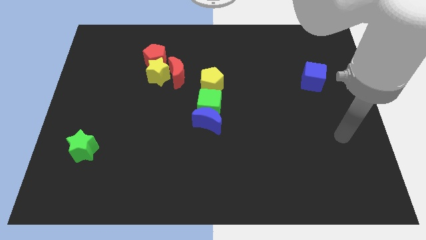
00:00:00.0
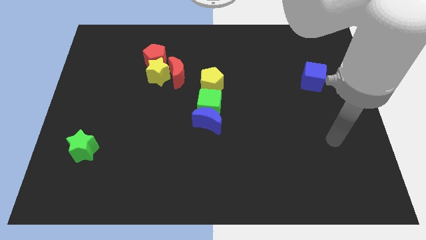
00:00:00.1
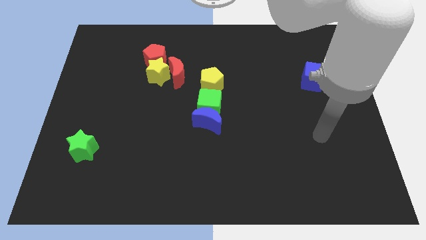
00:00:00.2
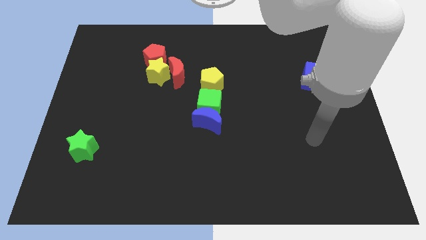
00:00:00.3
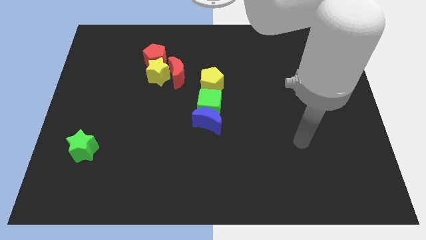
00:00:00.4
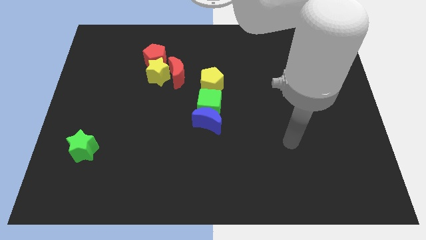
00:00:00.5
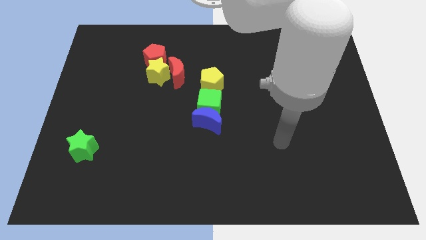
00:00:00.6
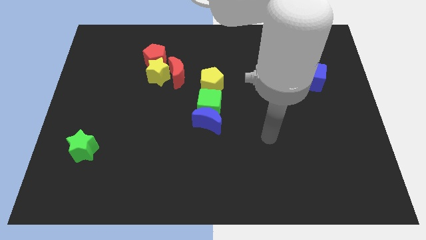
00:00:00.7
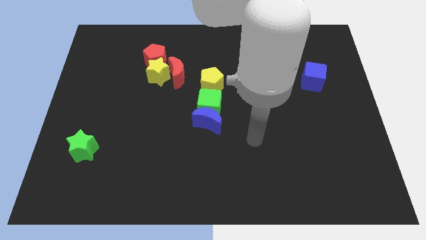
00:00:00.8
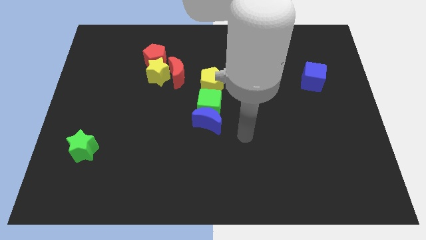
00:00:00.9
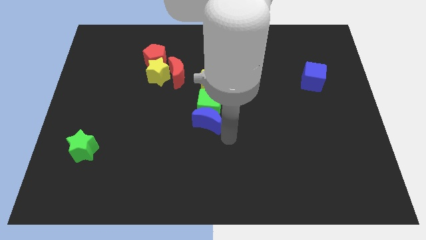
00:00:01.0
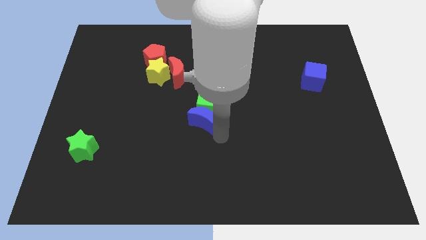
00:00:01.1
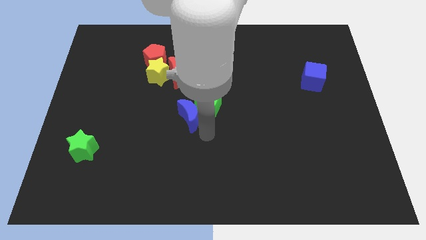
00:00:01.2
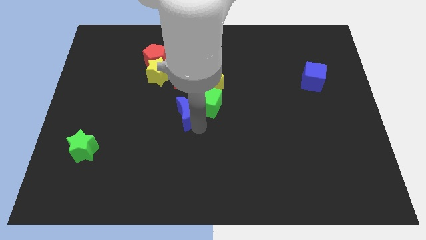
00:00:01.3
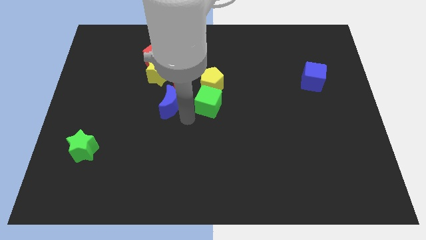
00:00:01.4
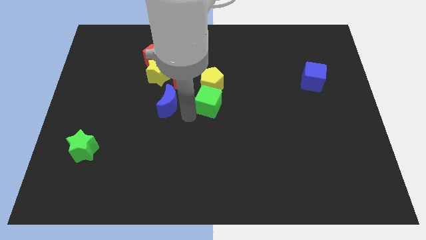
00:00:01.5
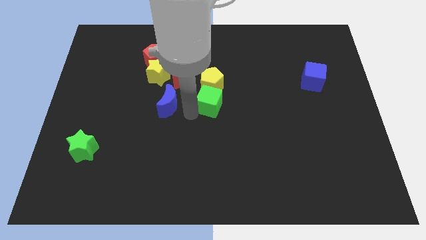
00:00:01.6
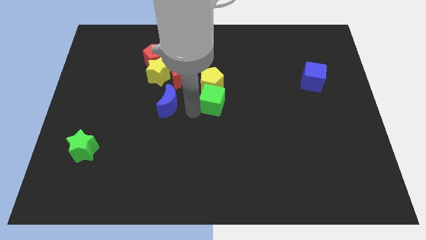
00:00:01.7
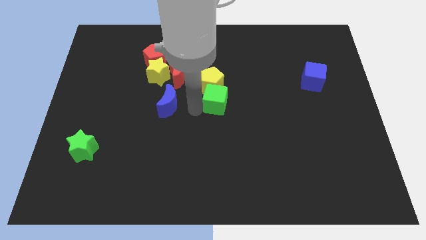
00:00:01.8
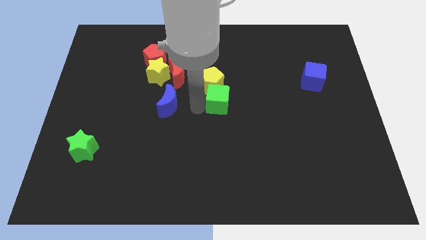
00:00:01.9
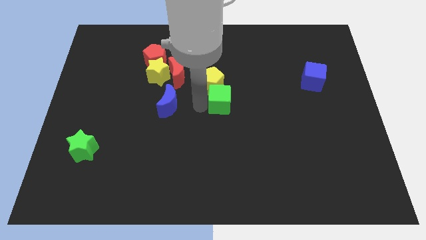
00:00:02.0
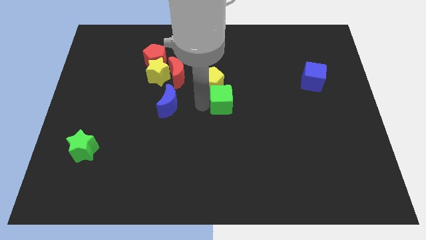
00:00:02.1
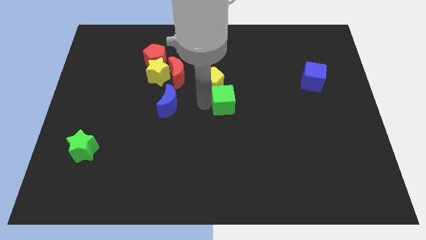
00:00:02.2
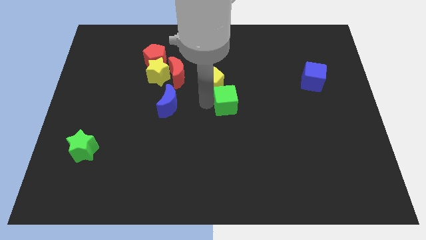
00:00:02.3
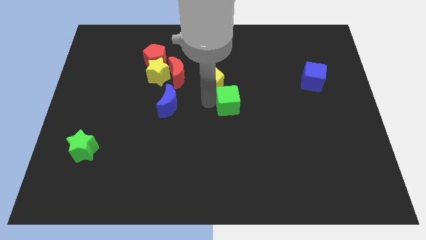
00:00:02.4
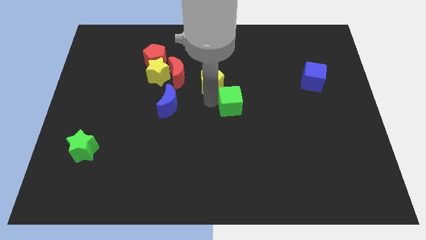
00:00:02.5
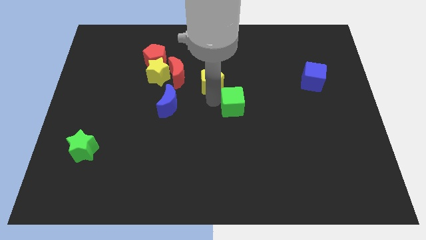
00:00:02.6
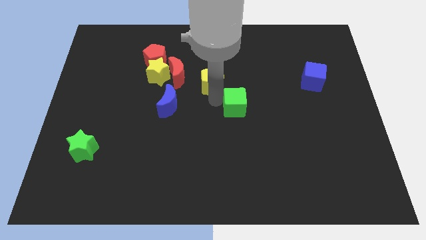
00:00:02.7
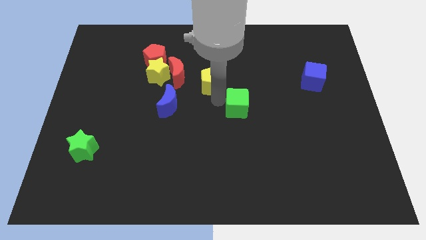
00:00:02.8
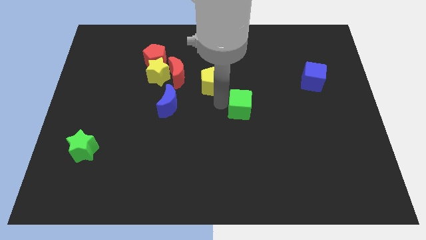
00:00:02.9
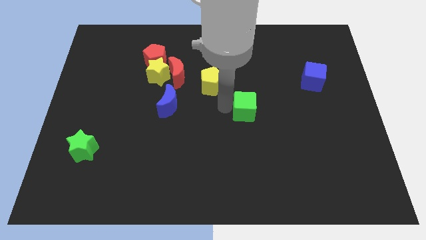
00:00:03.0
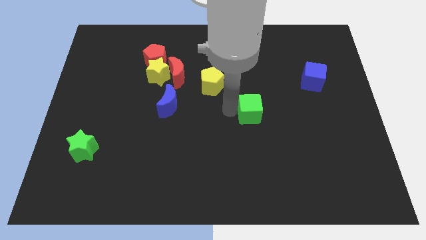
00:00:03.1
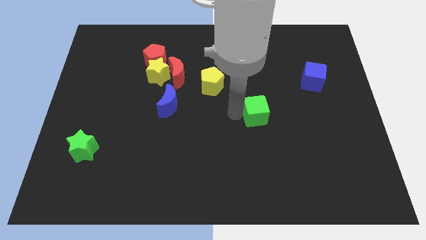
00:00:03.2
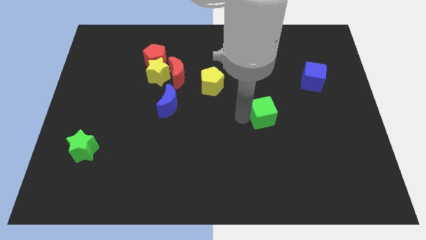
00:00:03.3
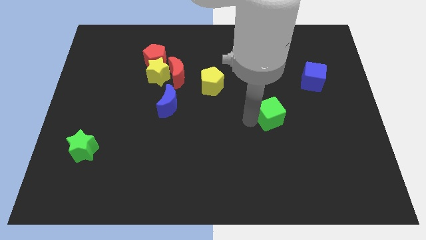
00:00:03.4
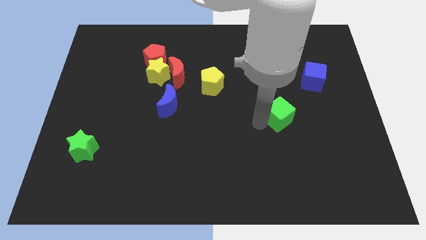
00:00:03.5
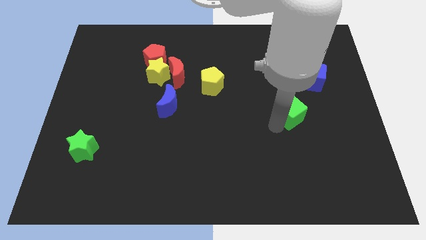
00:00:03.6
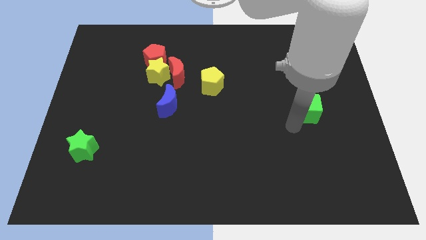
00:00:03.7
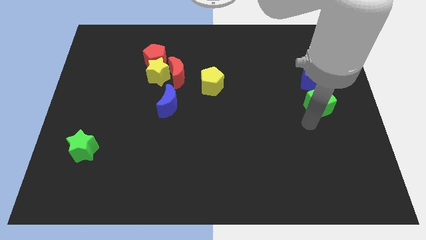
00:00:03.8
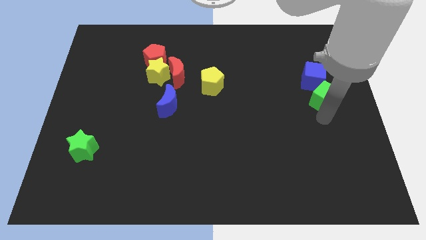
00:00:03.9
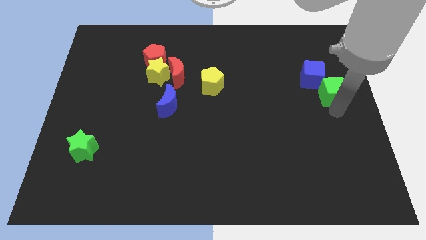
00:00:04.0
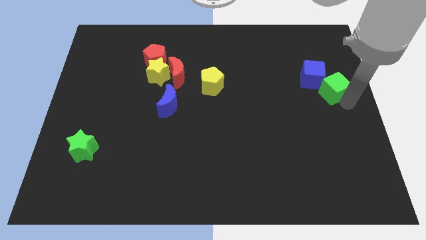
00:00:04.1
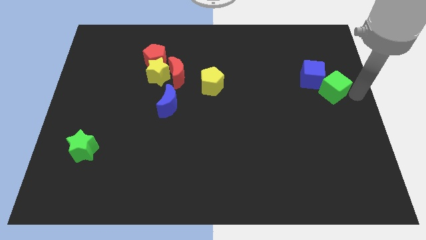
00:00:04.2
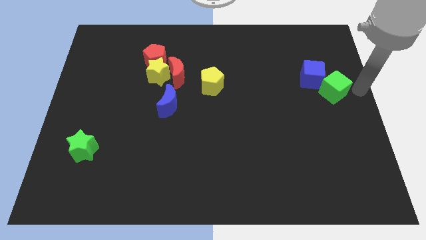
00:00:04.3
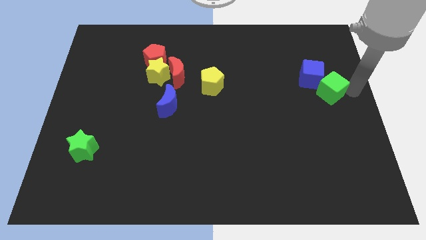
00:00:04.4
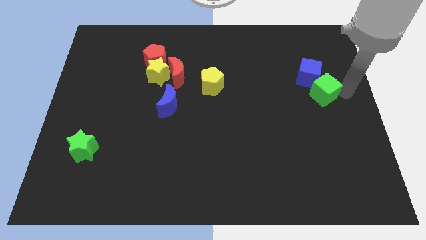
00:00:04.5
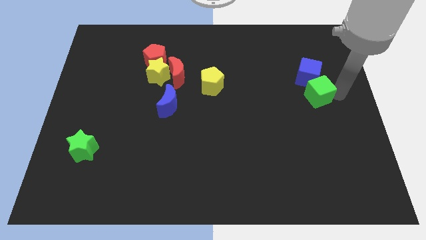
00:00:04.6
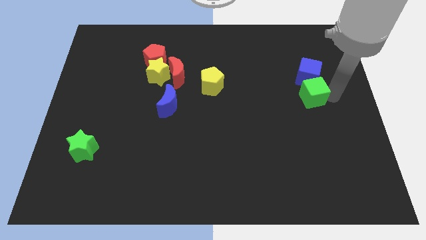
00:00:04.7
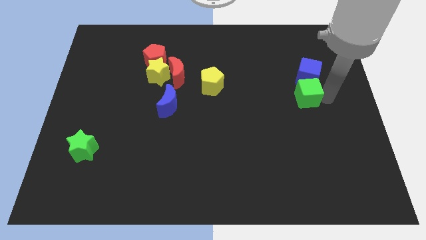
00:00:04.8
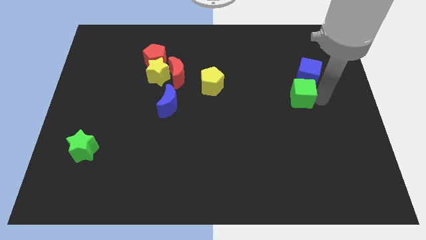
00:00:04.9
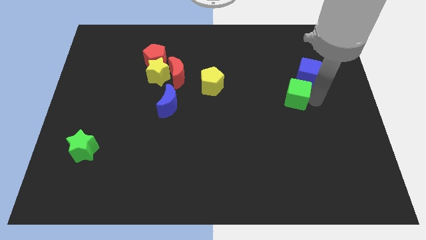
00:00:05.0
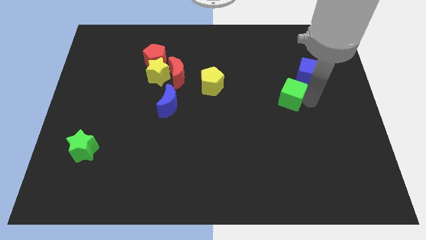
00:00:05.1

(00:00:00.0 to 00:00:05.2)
slide the green cube a little diagonally up and right

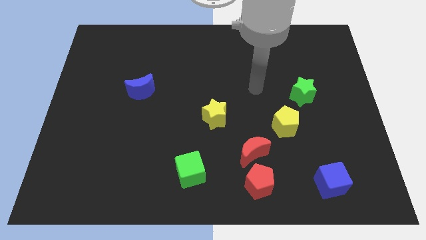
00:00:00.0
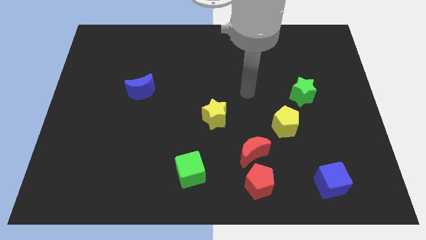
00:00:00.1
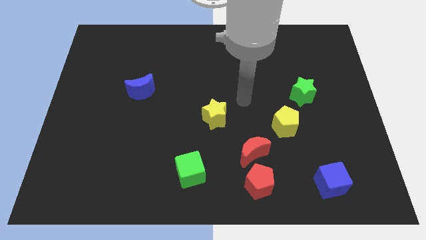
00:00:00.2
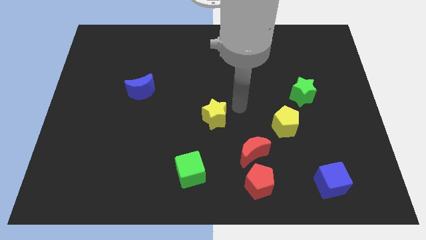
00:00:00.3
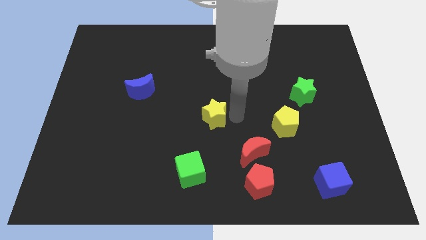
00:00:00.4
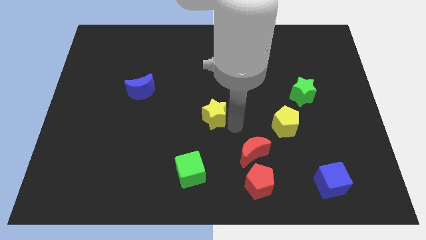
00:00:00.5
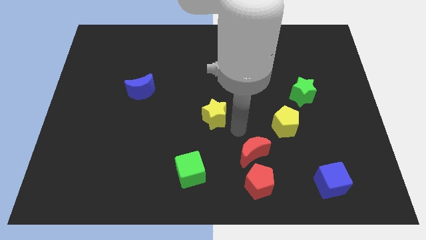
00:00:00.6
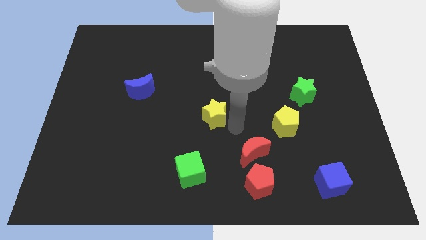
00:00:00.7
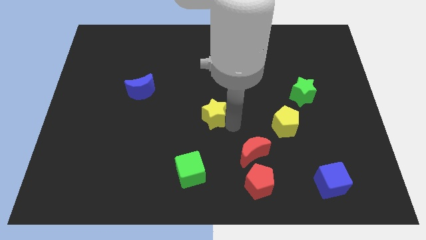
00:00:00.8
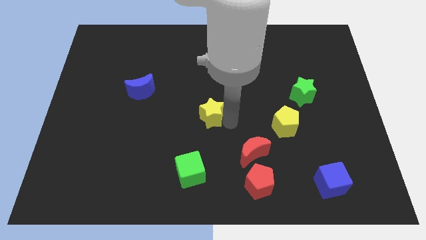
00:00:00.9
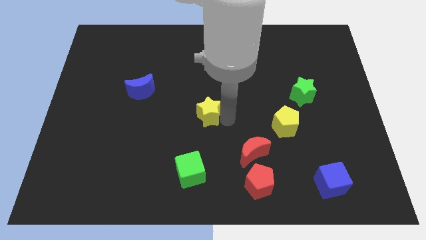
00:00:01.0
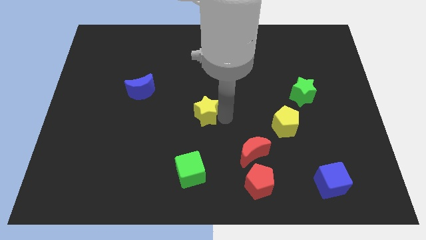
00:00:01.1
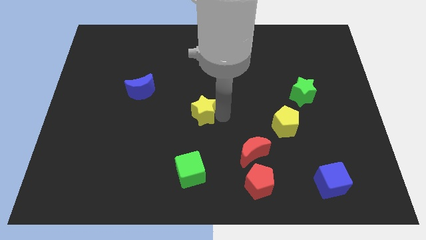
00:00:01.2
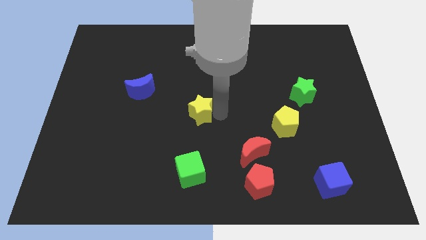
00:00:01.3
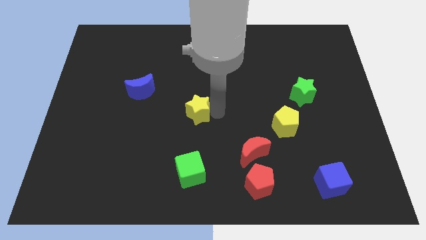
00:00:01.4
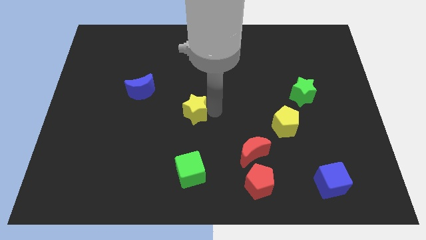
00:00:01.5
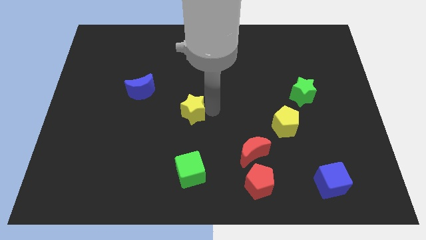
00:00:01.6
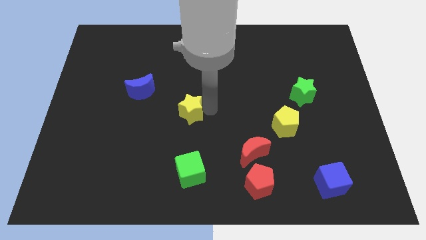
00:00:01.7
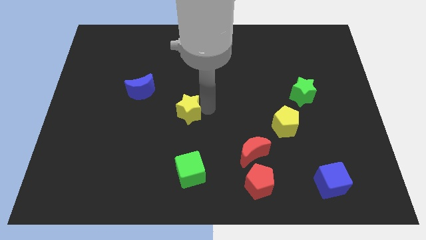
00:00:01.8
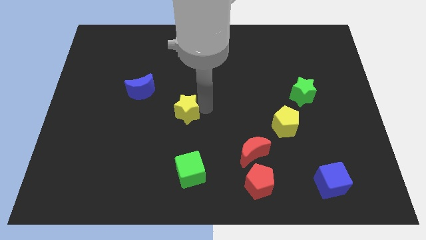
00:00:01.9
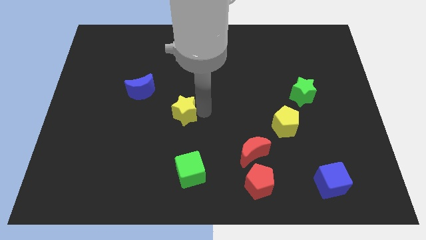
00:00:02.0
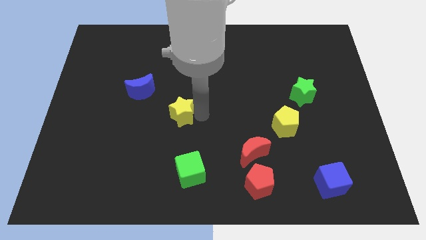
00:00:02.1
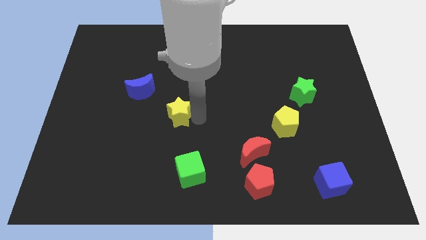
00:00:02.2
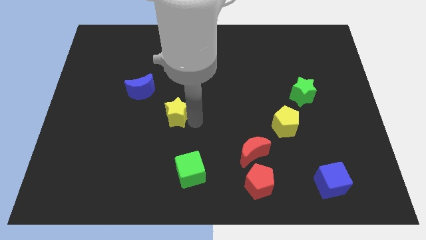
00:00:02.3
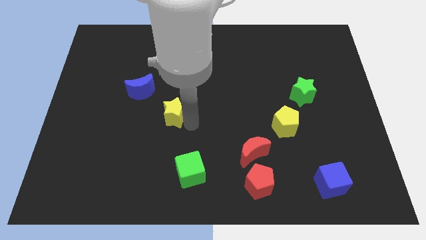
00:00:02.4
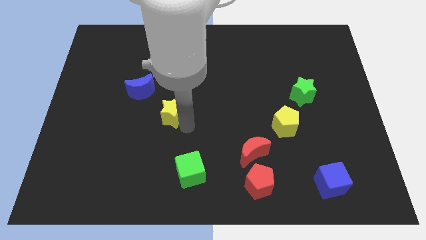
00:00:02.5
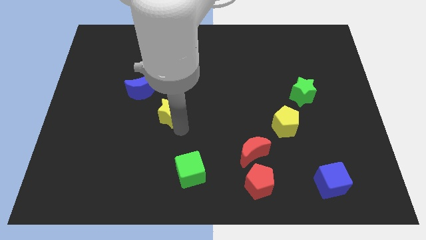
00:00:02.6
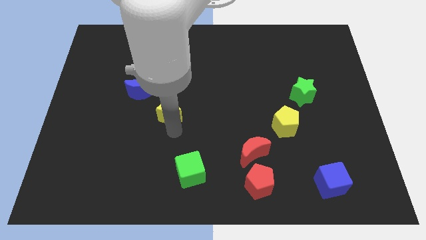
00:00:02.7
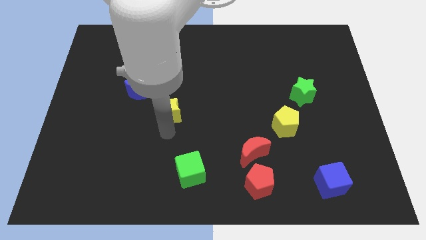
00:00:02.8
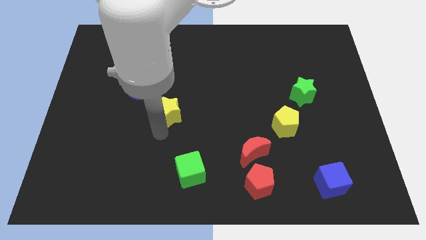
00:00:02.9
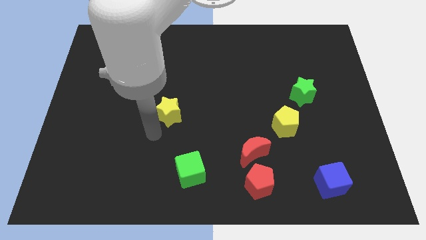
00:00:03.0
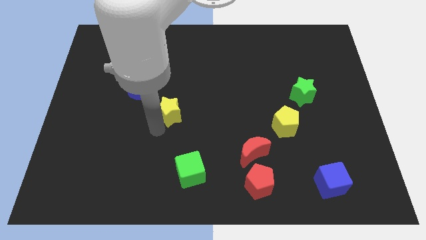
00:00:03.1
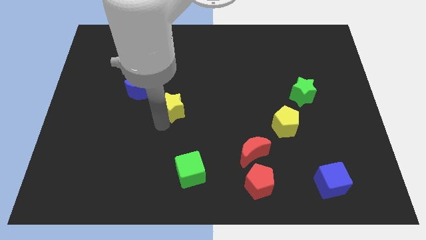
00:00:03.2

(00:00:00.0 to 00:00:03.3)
slightly push the yellow star up and to the left

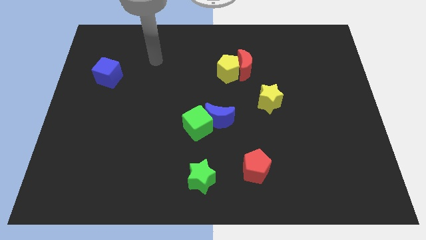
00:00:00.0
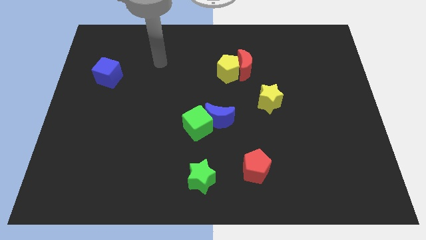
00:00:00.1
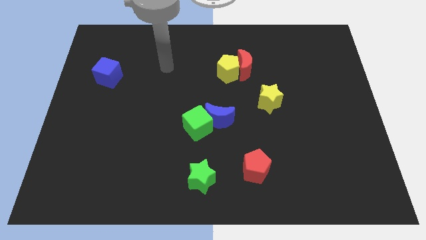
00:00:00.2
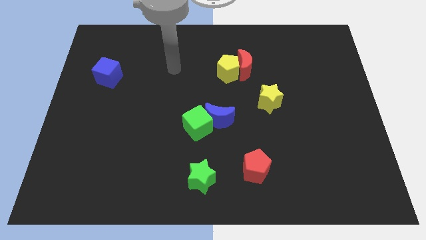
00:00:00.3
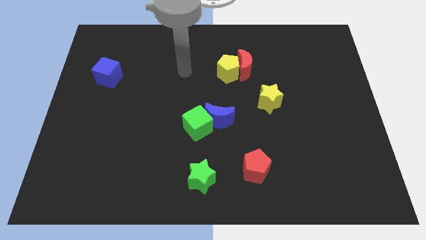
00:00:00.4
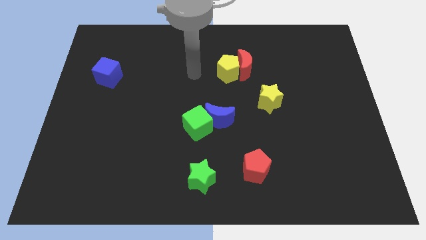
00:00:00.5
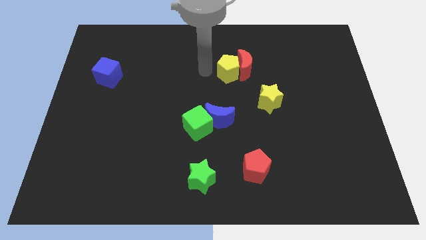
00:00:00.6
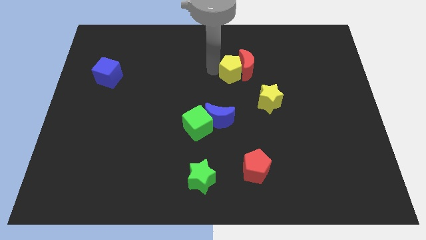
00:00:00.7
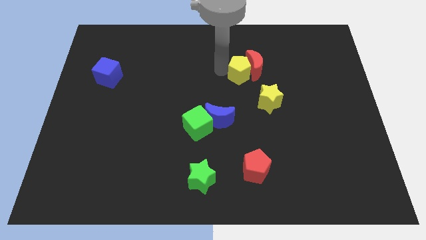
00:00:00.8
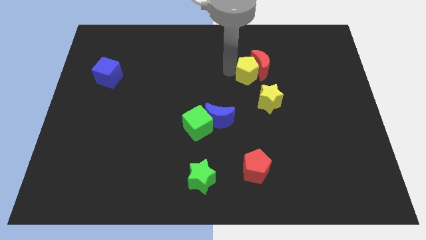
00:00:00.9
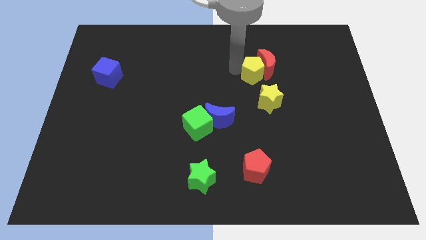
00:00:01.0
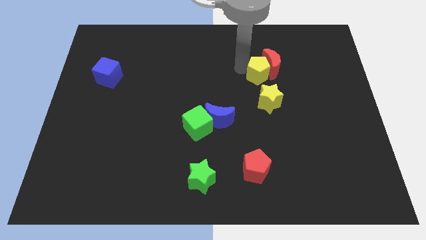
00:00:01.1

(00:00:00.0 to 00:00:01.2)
slide the red moon slightly right
